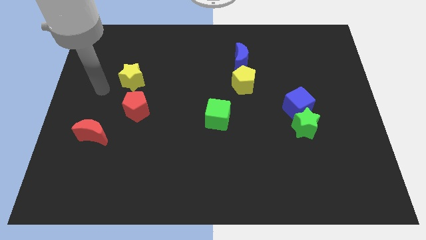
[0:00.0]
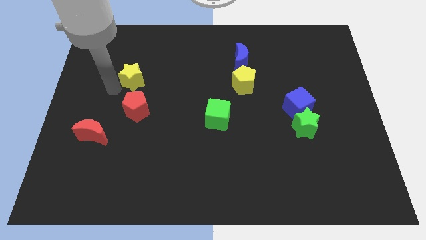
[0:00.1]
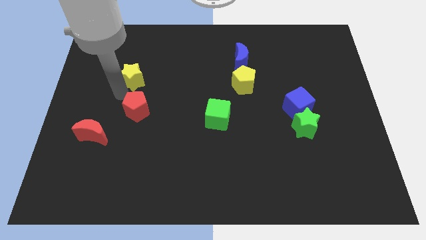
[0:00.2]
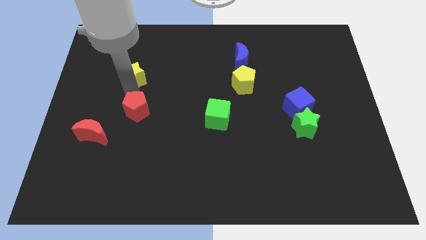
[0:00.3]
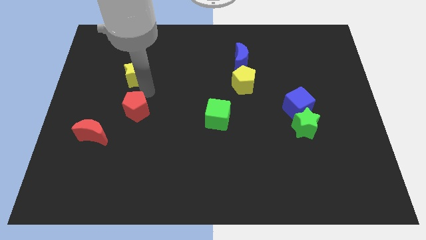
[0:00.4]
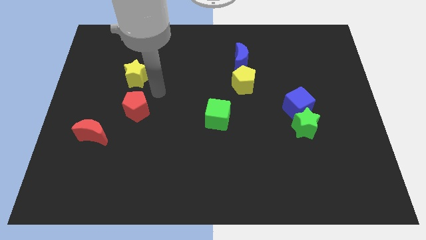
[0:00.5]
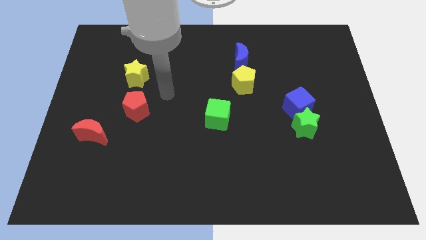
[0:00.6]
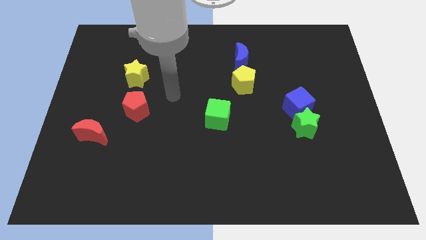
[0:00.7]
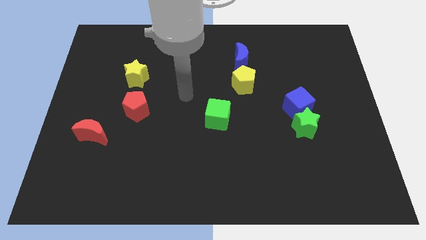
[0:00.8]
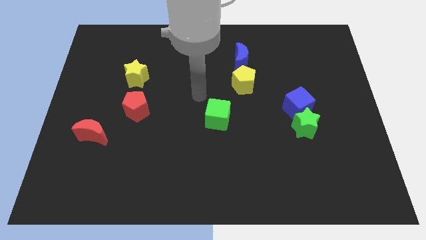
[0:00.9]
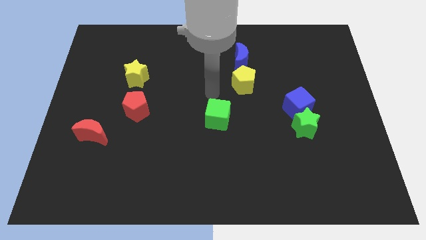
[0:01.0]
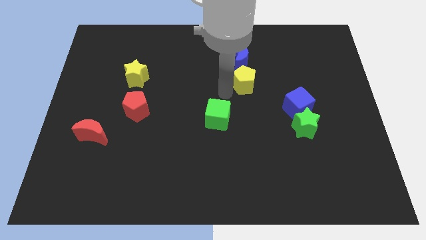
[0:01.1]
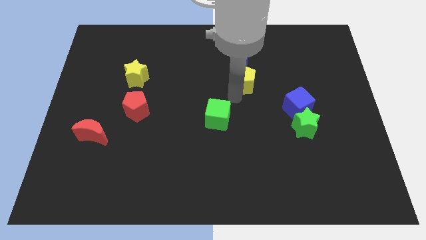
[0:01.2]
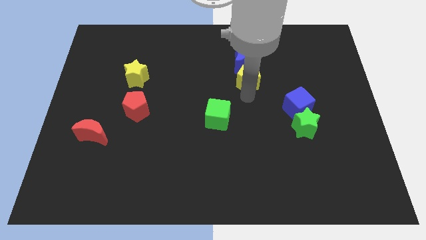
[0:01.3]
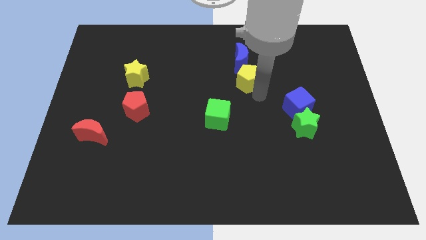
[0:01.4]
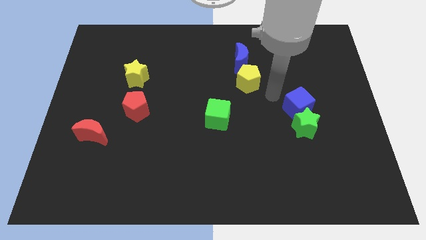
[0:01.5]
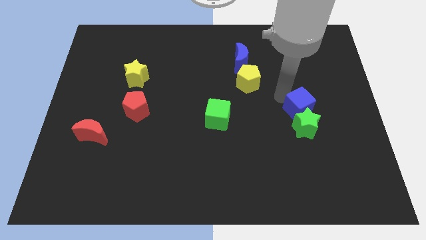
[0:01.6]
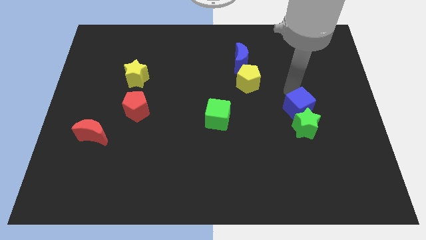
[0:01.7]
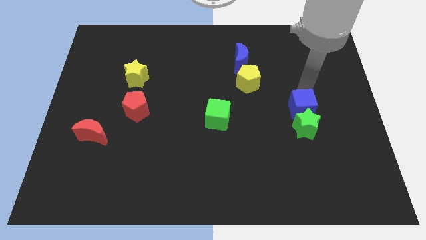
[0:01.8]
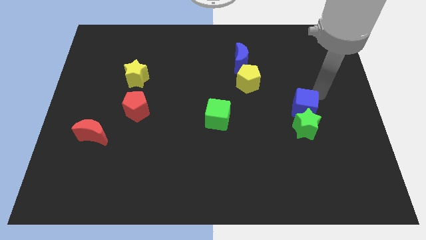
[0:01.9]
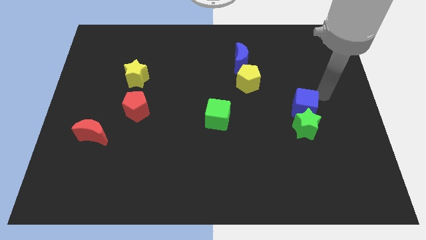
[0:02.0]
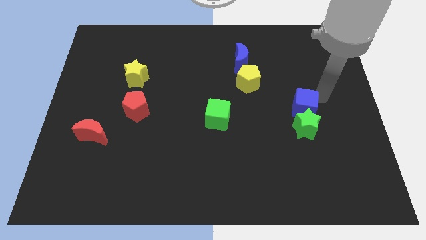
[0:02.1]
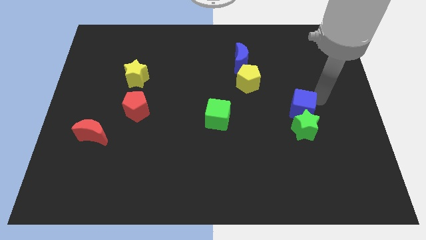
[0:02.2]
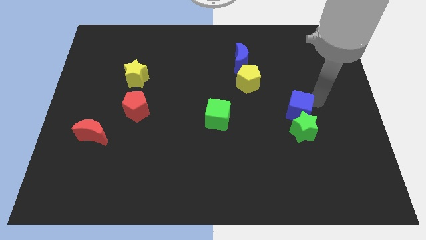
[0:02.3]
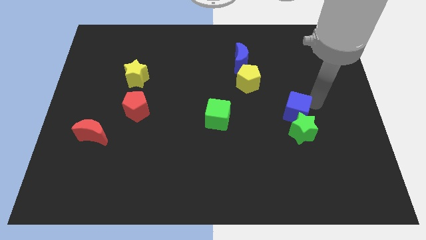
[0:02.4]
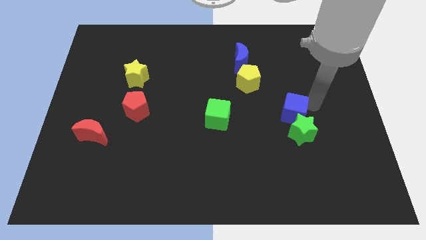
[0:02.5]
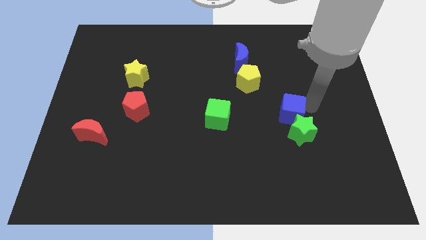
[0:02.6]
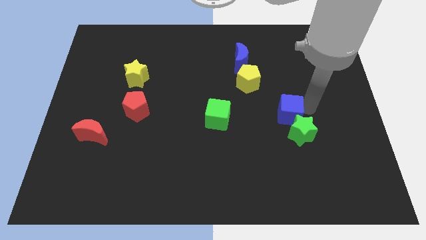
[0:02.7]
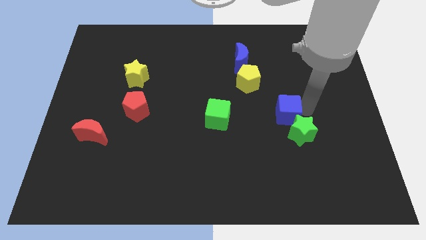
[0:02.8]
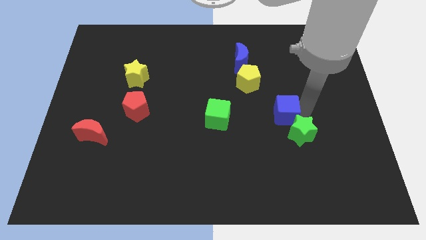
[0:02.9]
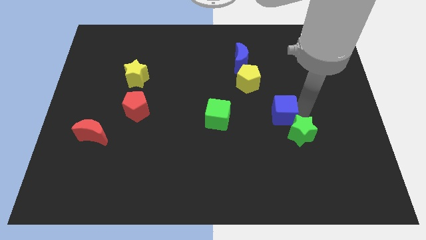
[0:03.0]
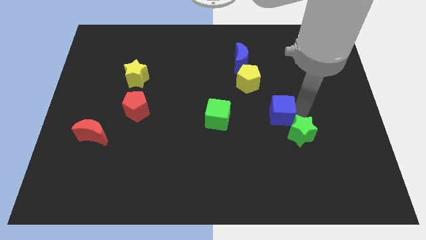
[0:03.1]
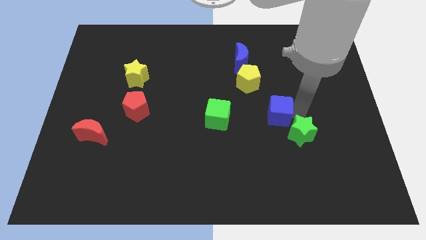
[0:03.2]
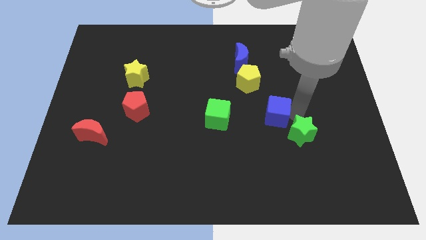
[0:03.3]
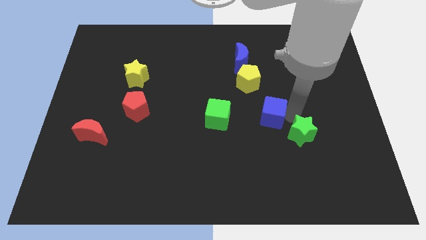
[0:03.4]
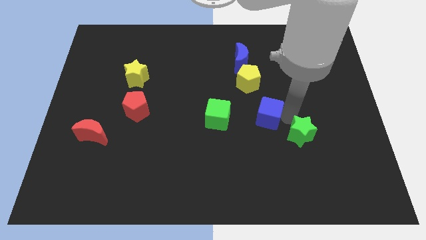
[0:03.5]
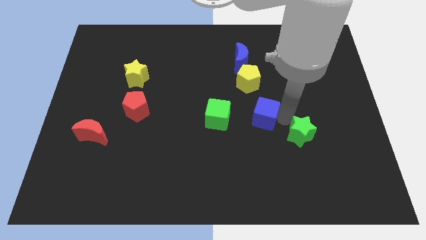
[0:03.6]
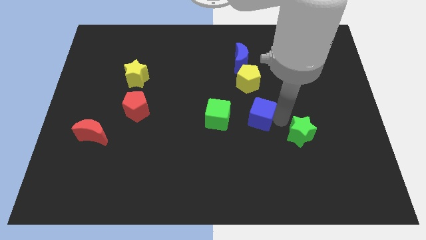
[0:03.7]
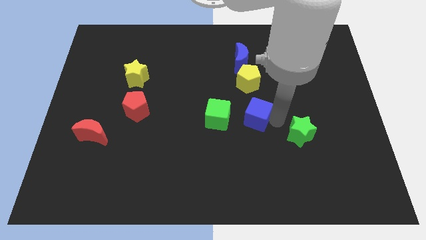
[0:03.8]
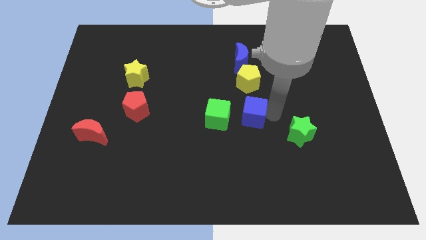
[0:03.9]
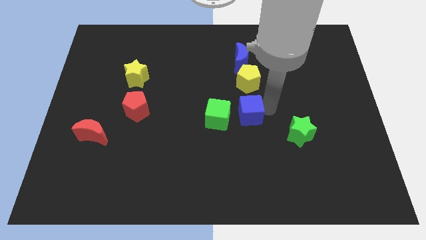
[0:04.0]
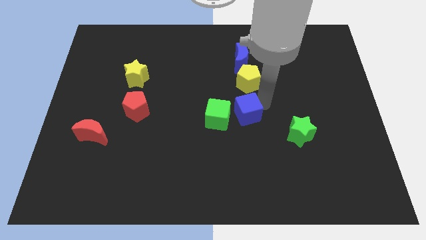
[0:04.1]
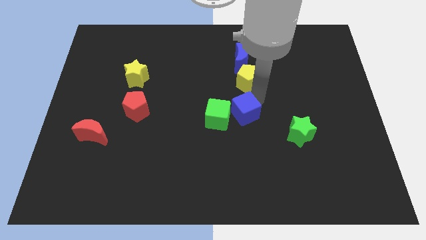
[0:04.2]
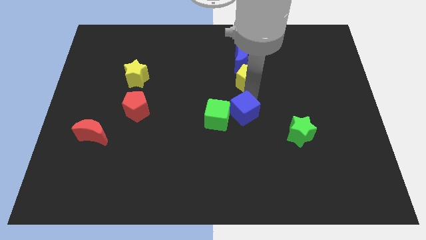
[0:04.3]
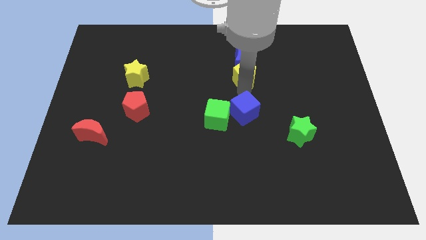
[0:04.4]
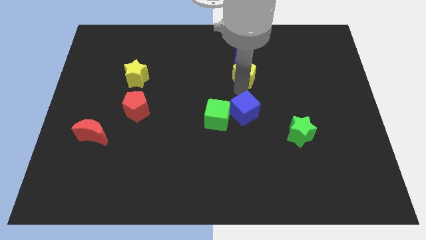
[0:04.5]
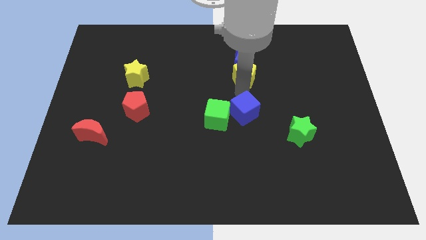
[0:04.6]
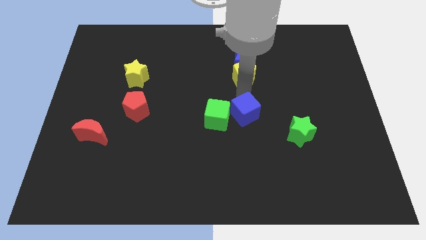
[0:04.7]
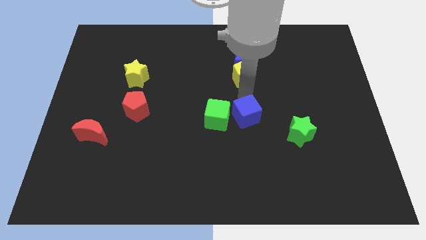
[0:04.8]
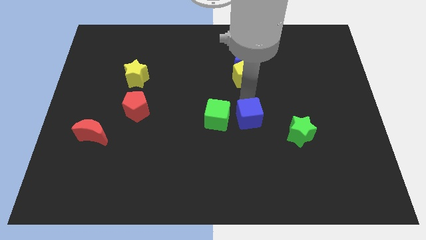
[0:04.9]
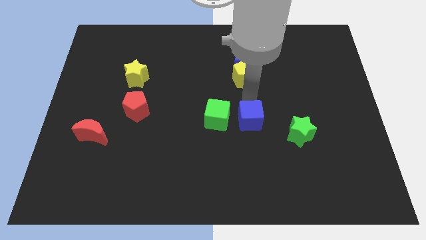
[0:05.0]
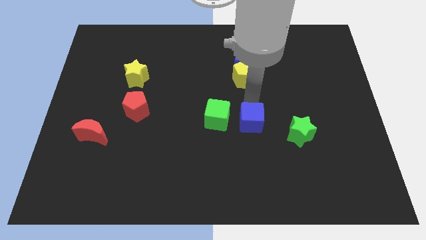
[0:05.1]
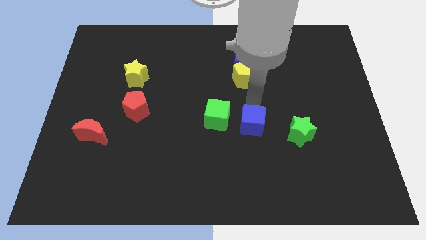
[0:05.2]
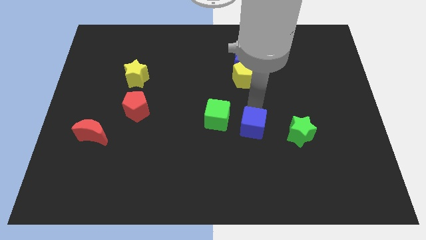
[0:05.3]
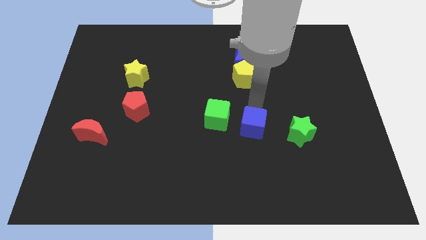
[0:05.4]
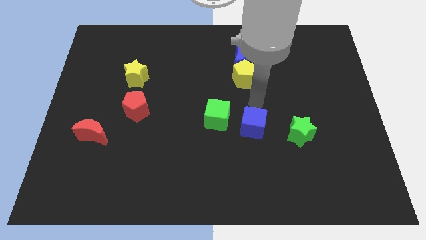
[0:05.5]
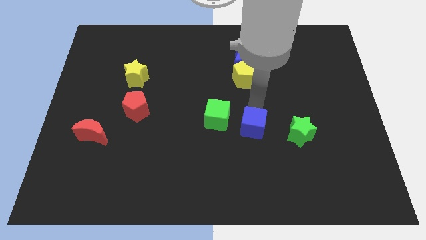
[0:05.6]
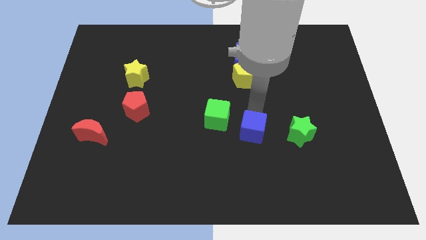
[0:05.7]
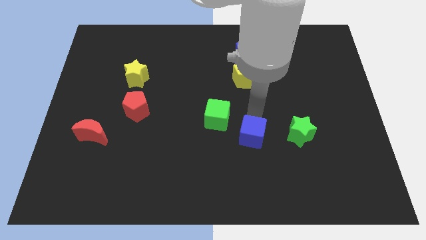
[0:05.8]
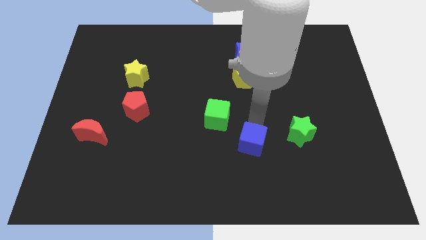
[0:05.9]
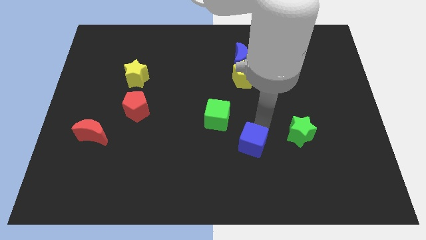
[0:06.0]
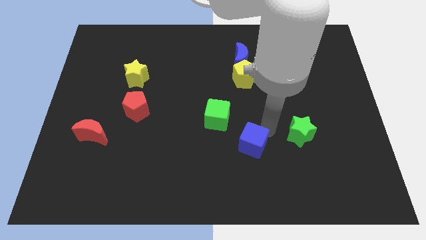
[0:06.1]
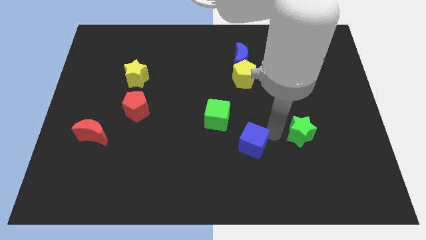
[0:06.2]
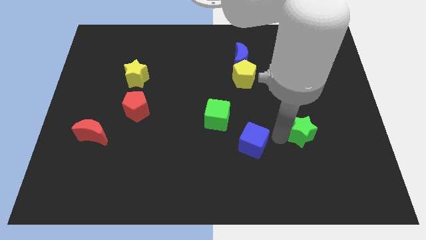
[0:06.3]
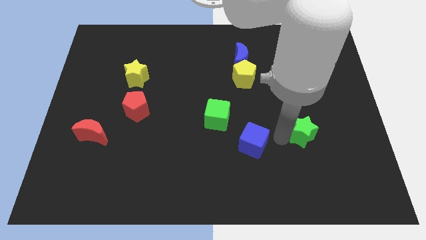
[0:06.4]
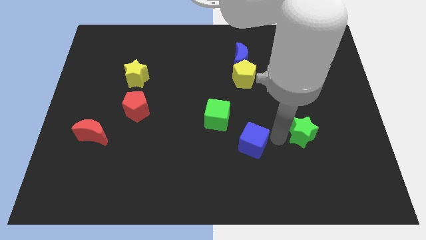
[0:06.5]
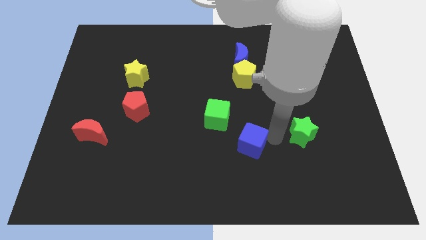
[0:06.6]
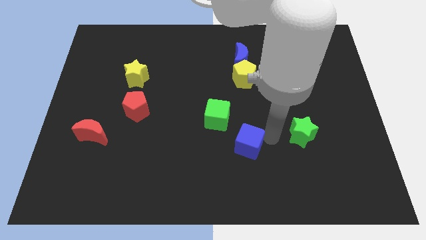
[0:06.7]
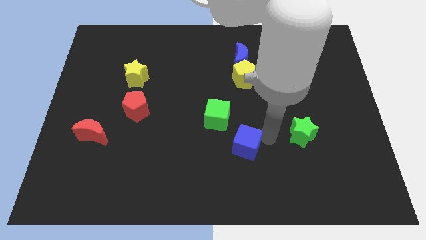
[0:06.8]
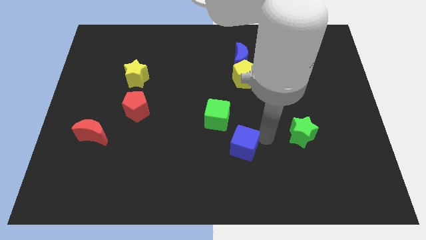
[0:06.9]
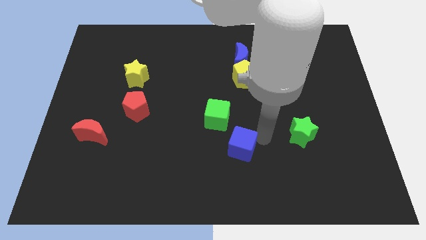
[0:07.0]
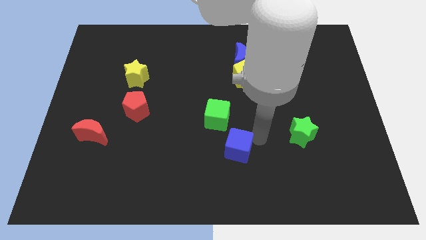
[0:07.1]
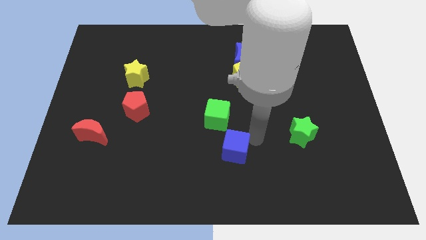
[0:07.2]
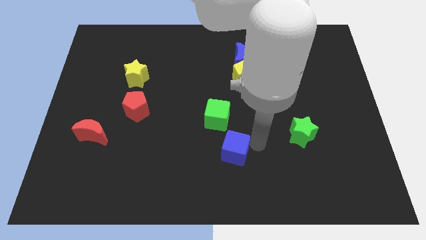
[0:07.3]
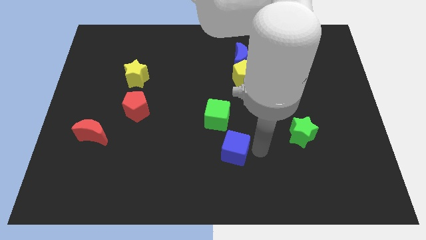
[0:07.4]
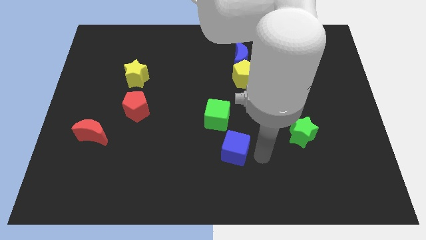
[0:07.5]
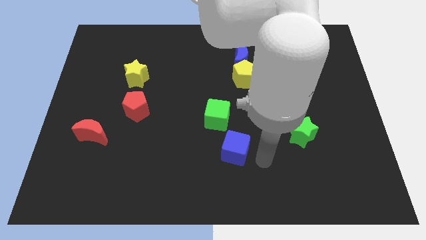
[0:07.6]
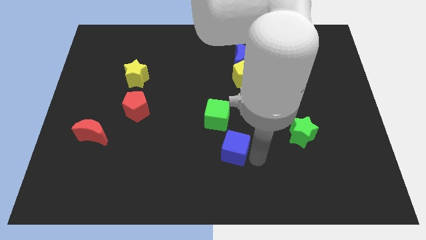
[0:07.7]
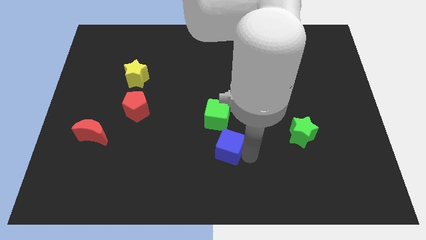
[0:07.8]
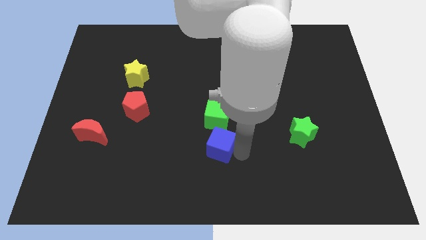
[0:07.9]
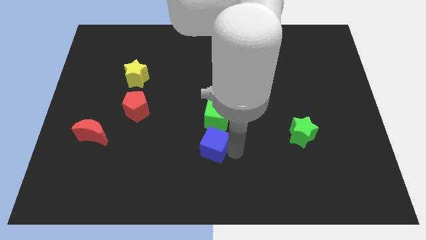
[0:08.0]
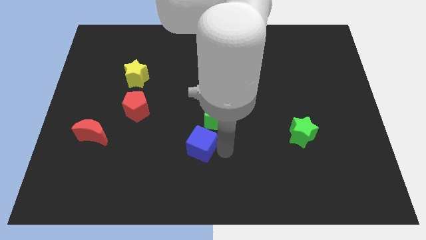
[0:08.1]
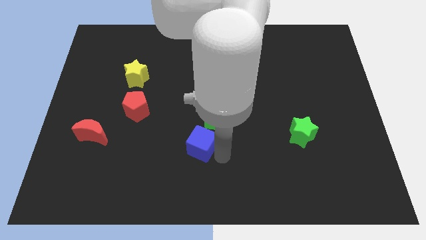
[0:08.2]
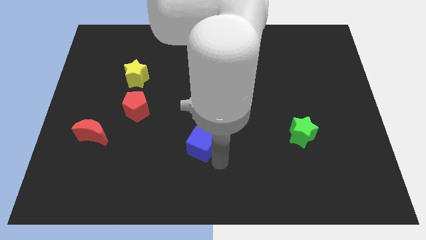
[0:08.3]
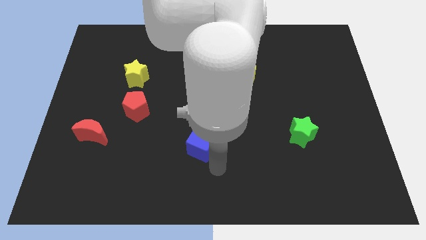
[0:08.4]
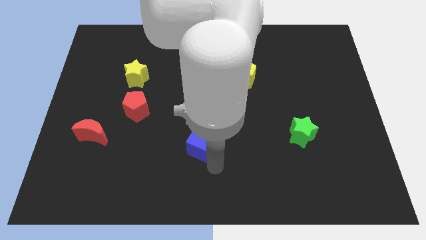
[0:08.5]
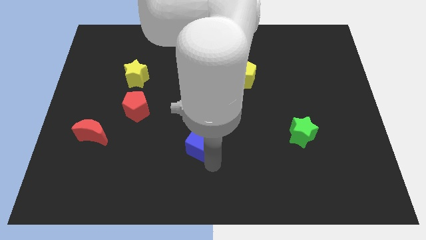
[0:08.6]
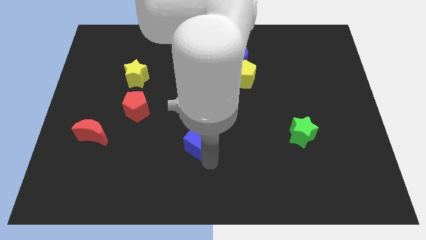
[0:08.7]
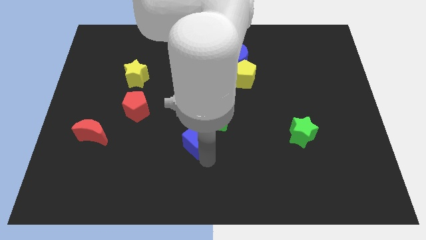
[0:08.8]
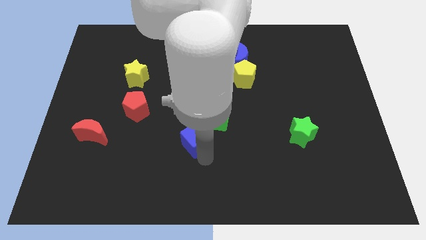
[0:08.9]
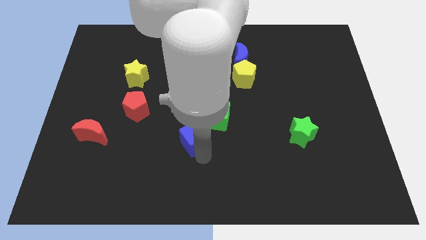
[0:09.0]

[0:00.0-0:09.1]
slide the blue cube to the left
